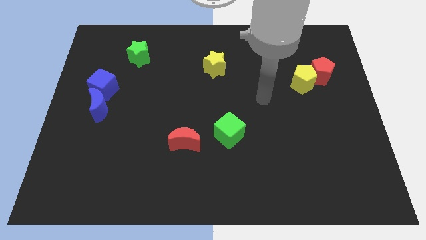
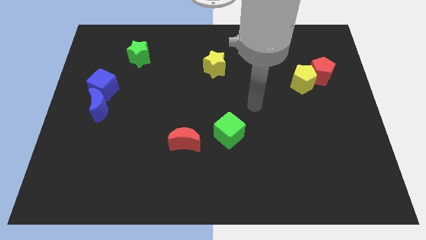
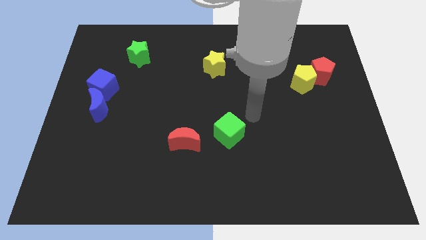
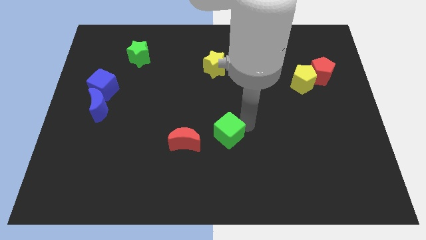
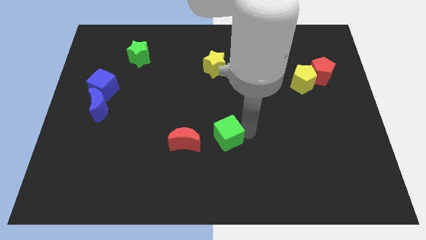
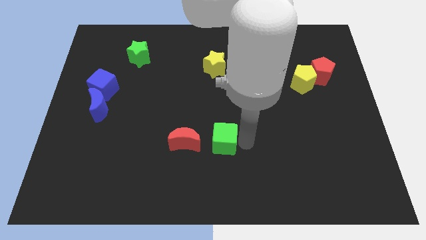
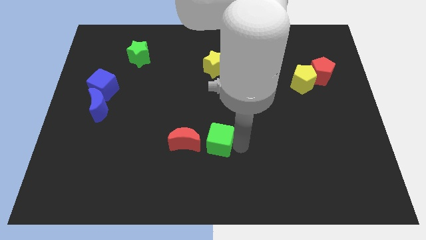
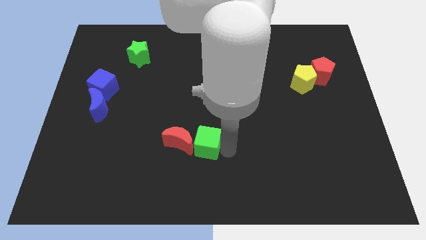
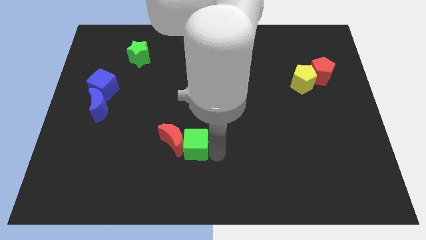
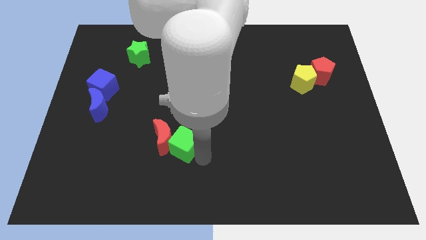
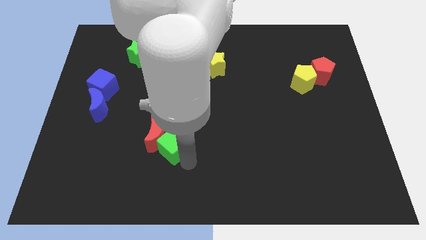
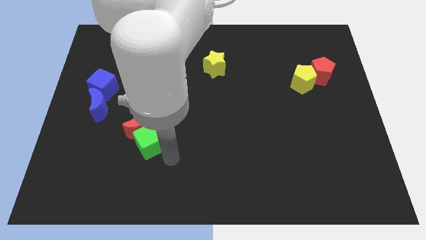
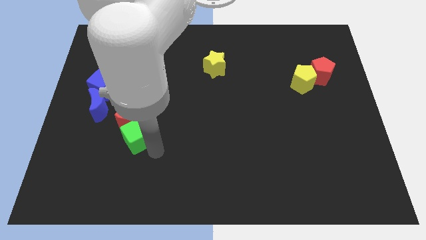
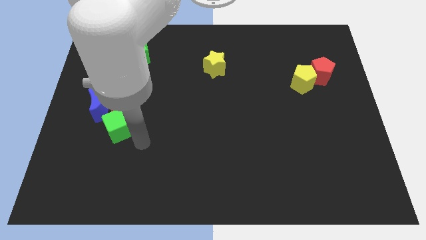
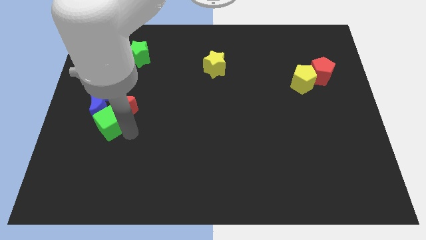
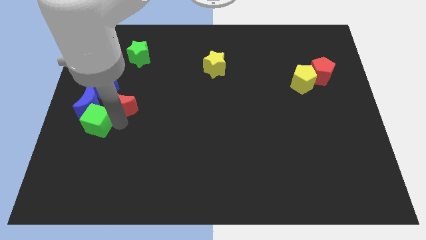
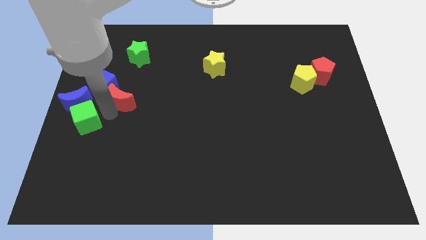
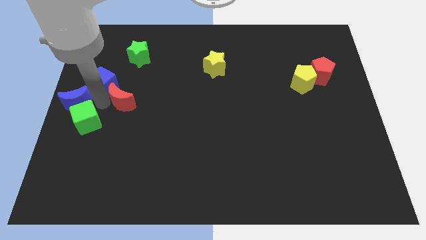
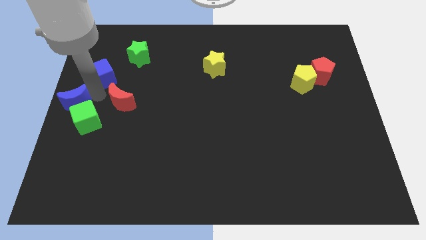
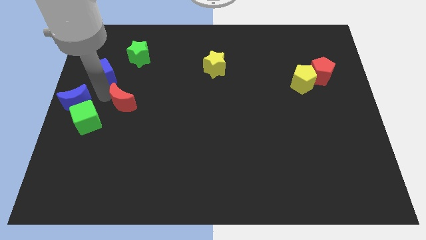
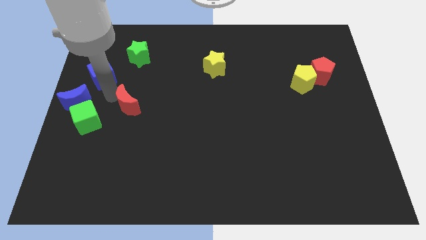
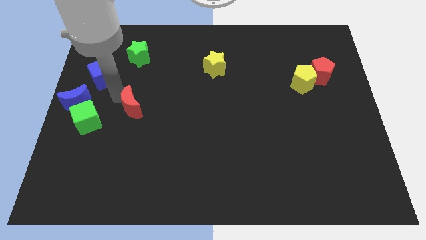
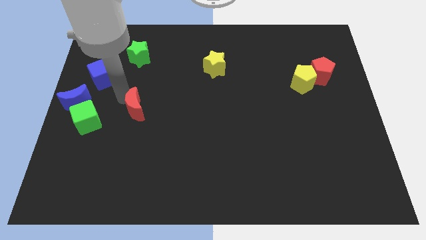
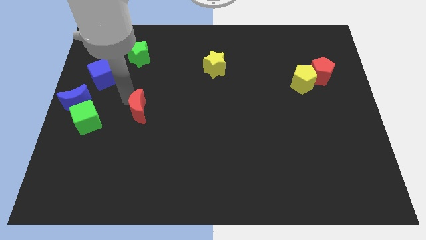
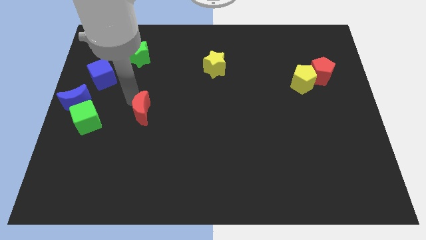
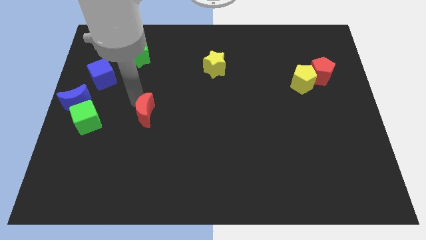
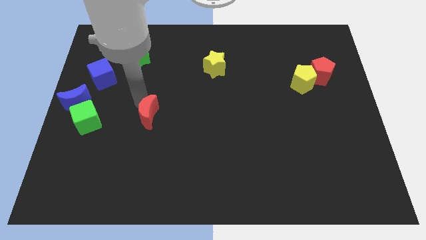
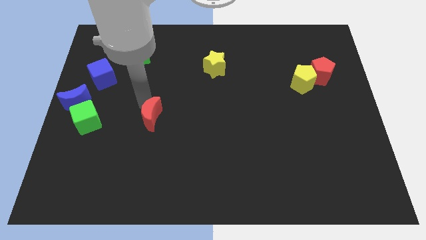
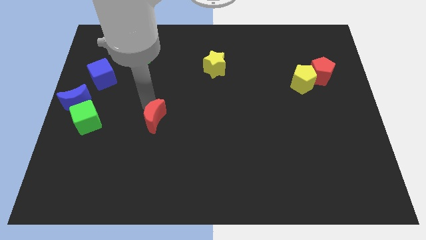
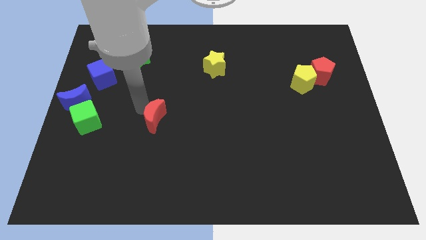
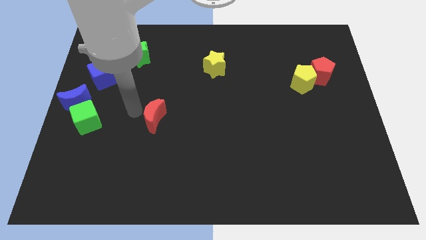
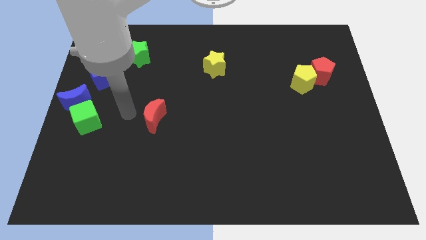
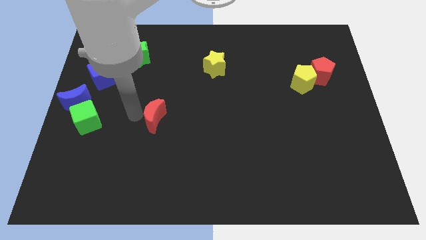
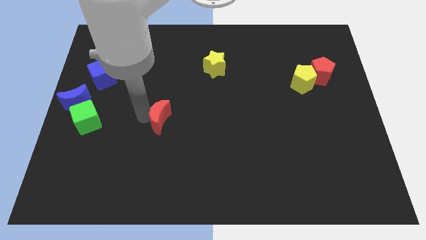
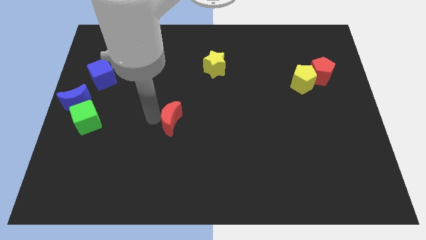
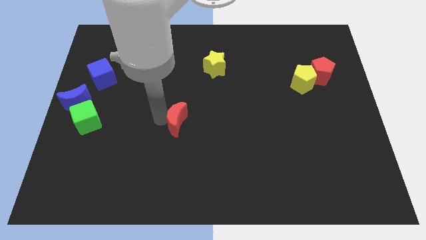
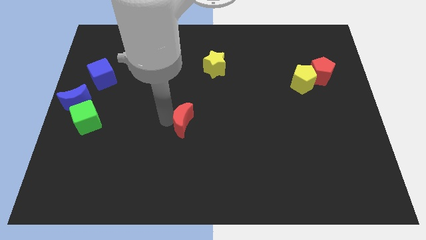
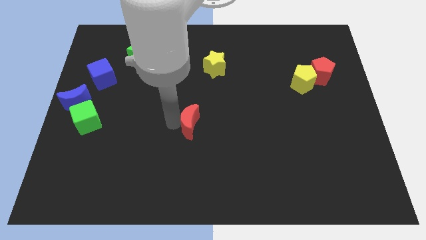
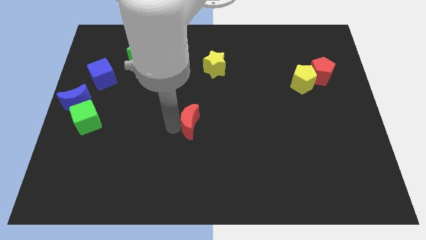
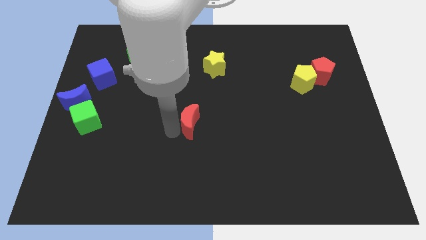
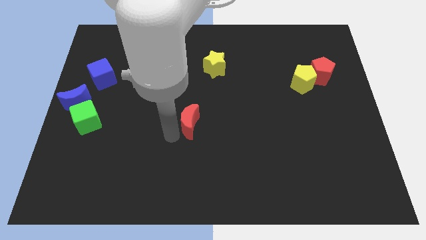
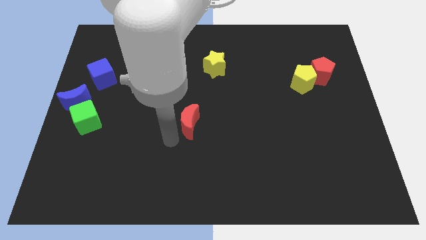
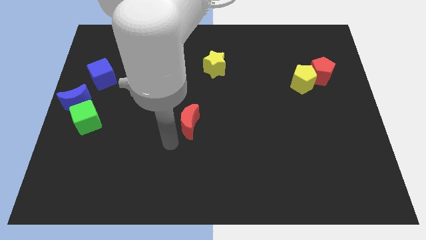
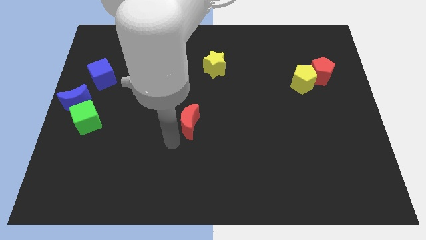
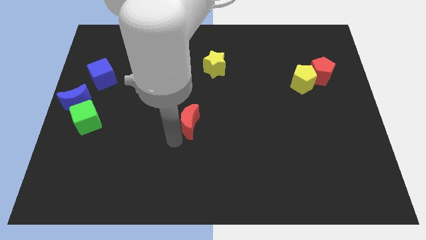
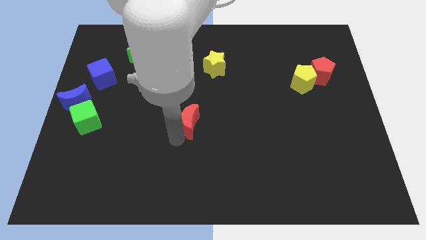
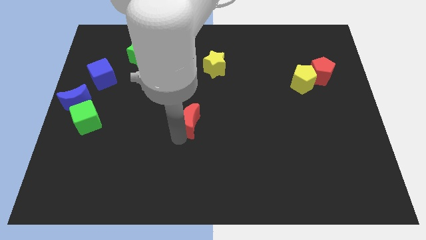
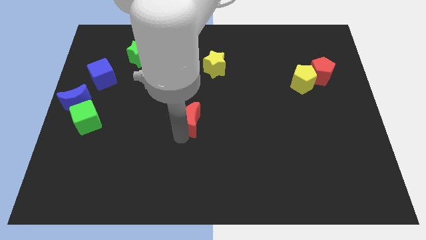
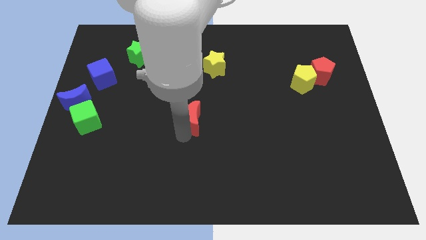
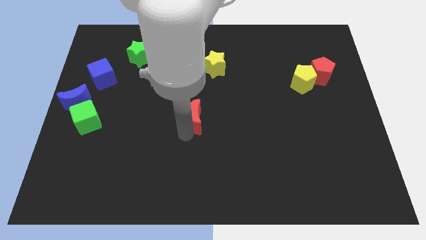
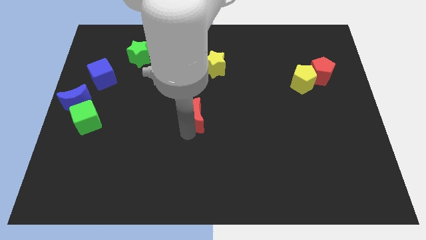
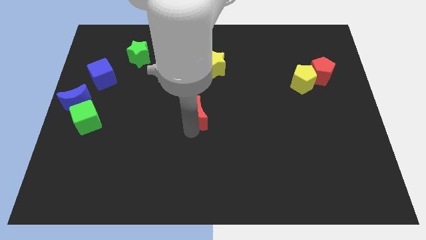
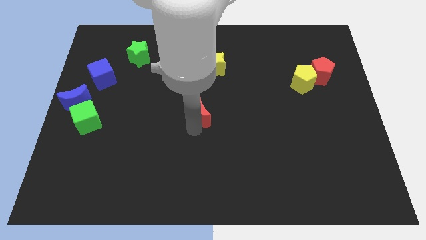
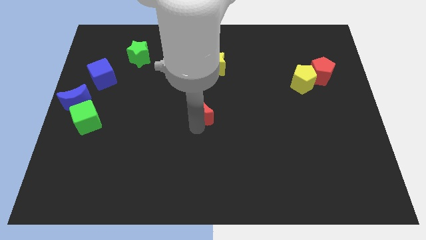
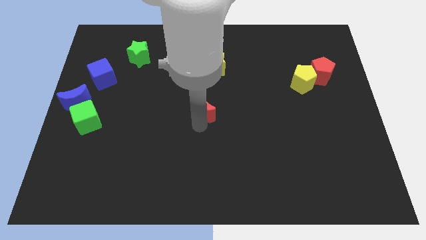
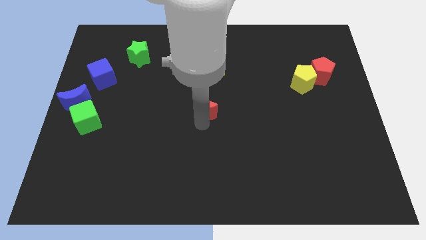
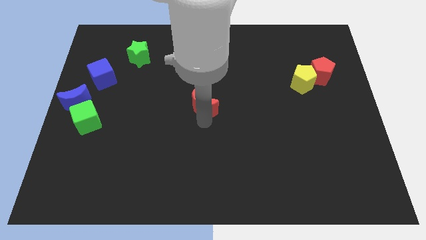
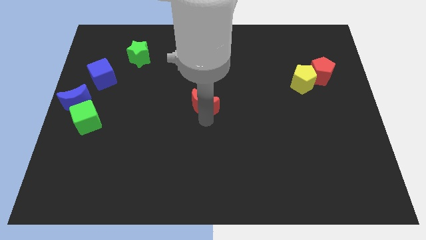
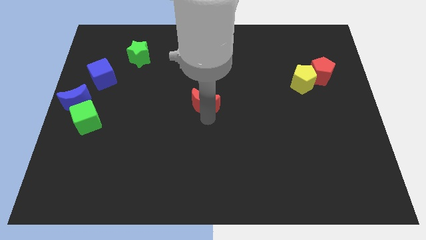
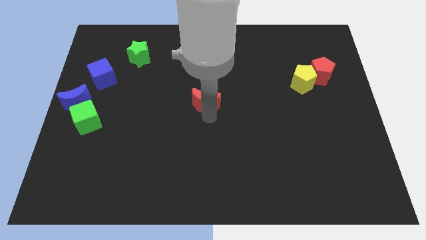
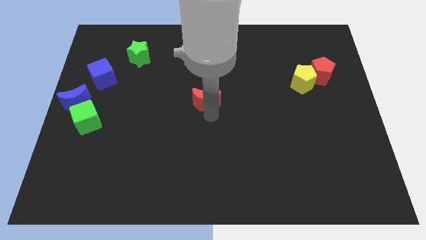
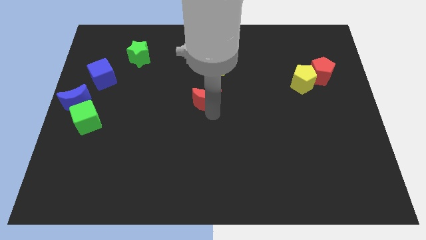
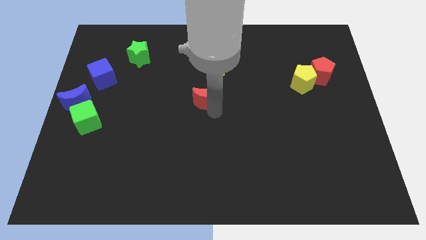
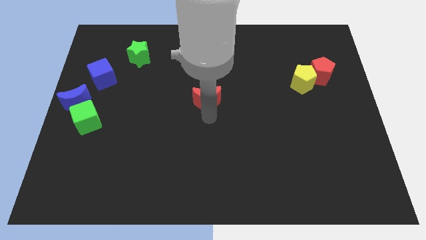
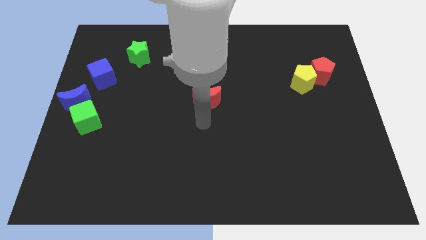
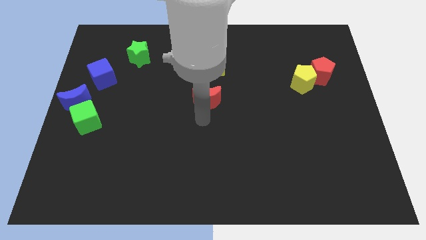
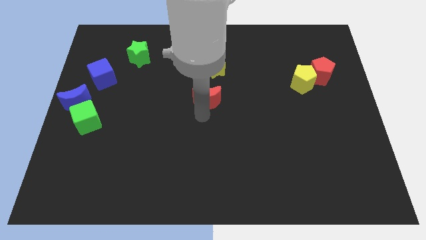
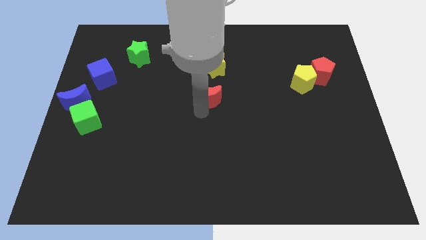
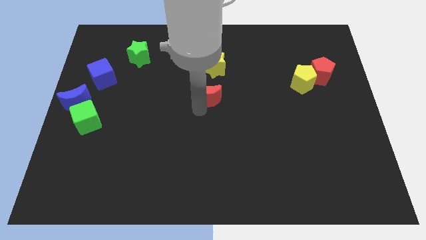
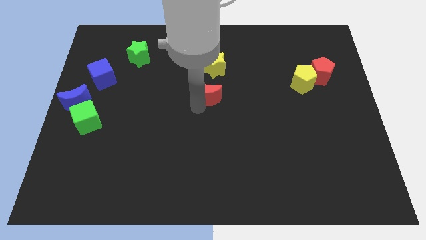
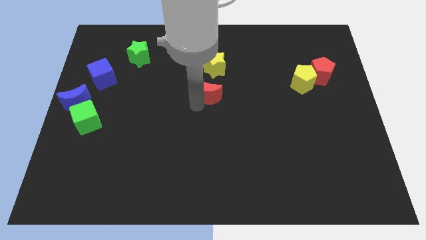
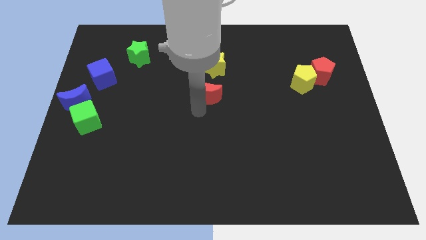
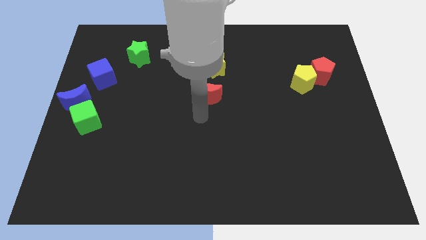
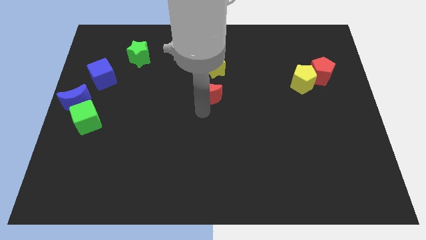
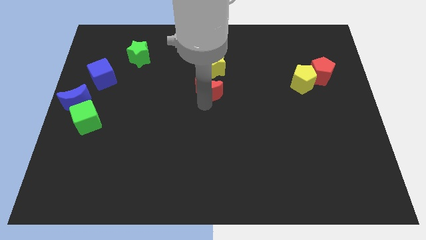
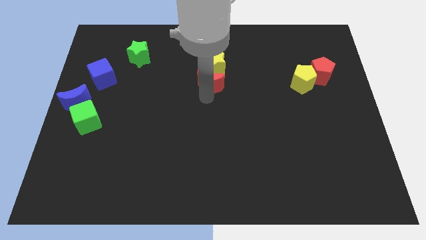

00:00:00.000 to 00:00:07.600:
push the red moon towards the yellow star
